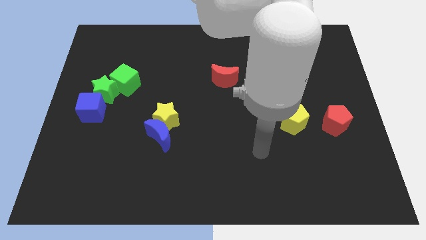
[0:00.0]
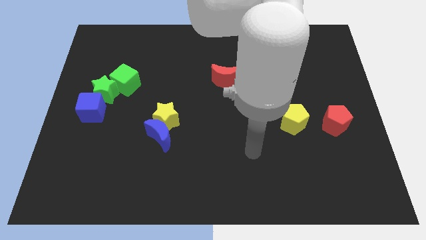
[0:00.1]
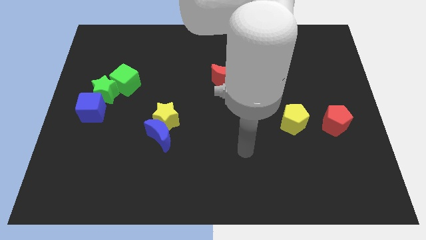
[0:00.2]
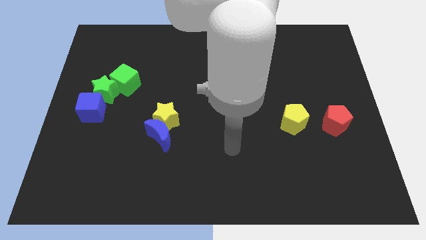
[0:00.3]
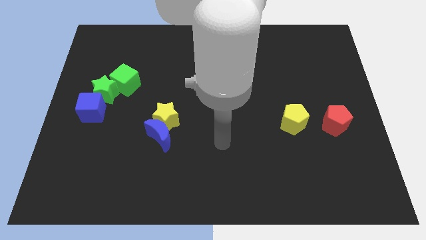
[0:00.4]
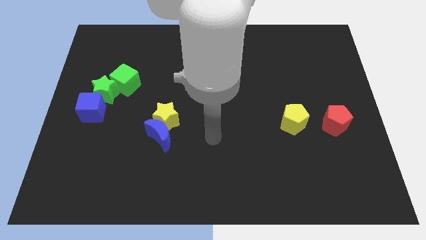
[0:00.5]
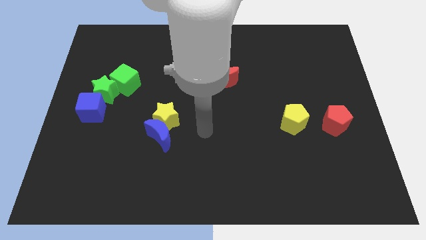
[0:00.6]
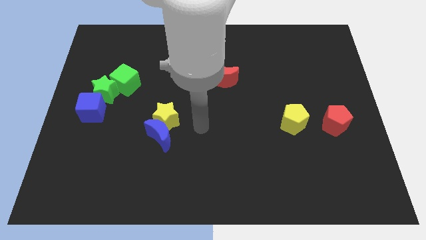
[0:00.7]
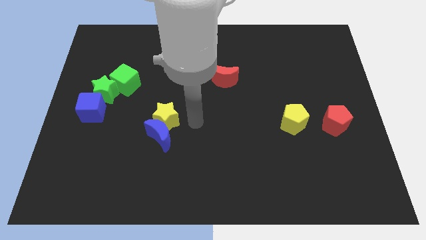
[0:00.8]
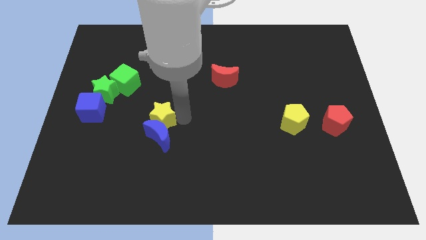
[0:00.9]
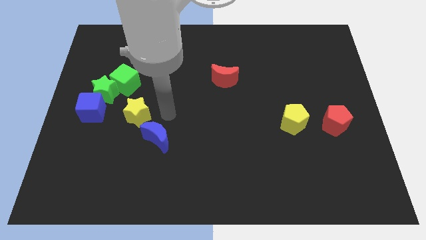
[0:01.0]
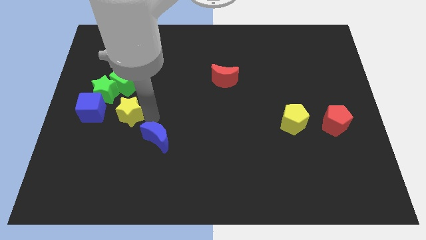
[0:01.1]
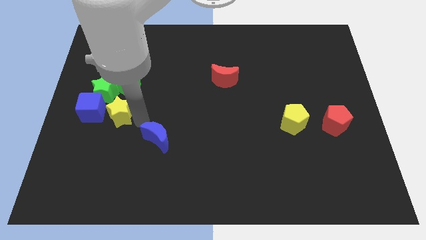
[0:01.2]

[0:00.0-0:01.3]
pull the blue moon apart from the yellow star

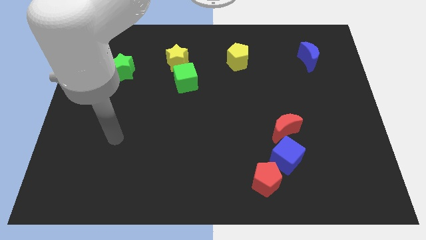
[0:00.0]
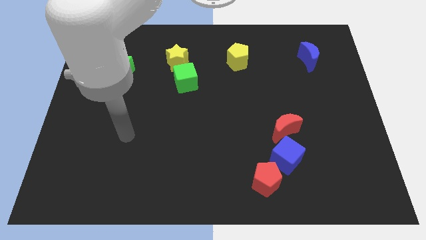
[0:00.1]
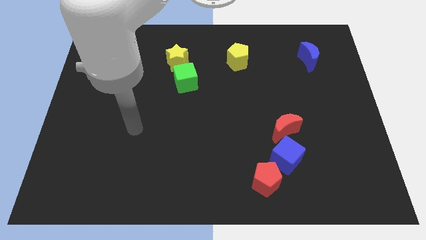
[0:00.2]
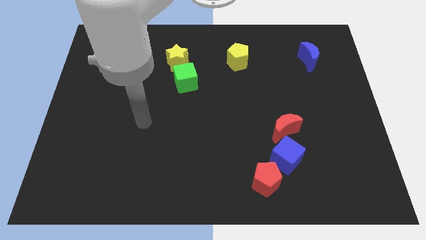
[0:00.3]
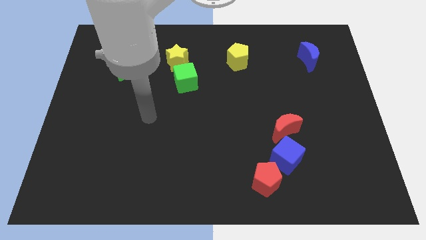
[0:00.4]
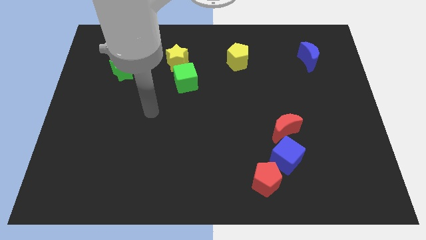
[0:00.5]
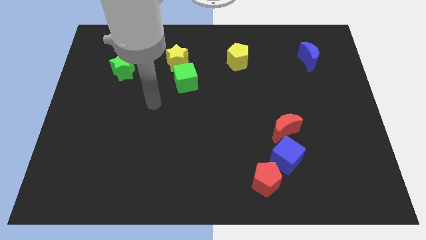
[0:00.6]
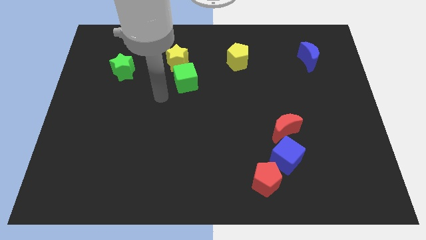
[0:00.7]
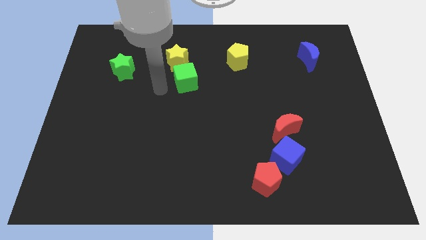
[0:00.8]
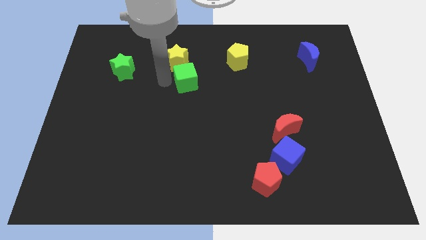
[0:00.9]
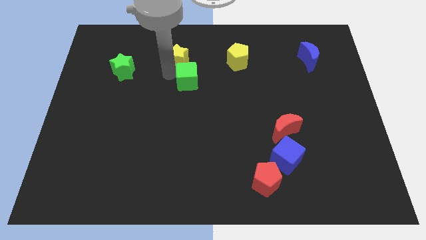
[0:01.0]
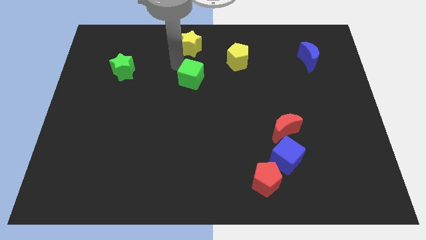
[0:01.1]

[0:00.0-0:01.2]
move the green cube away from the yellow star

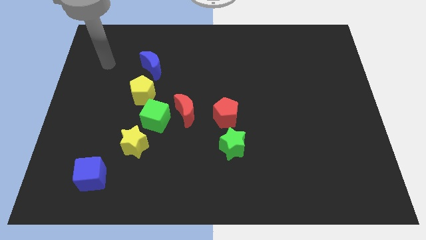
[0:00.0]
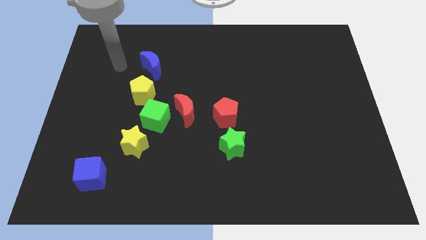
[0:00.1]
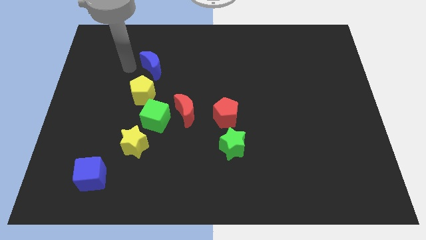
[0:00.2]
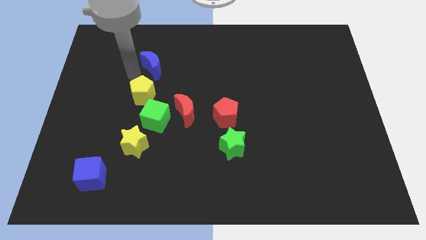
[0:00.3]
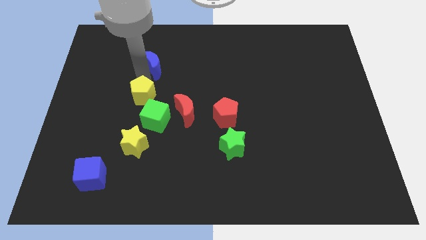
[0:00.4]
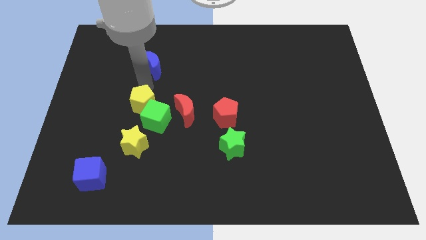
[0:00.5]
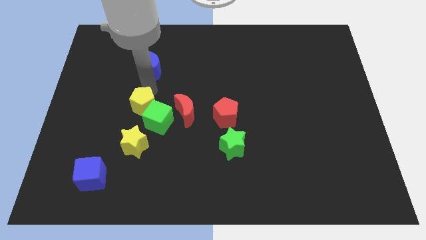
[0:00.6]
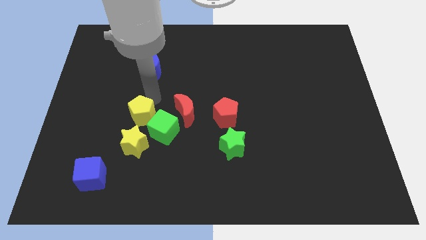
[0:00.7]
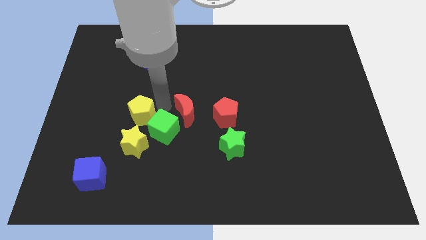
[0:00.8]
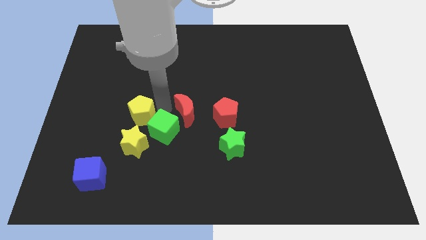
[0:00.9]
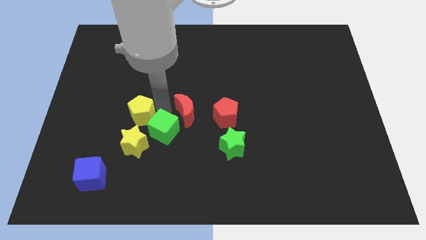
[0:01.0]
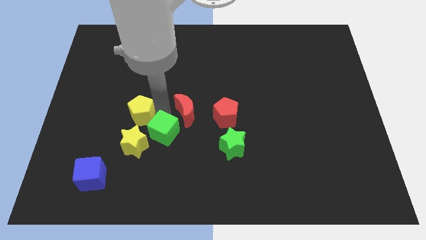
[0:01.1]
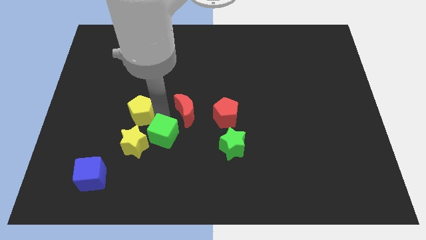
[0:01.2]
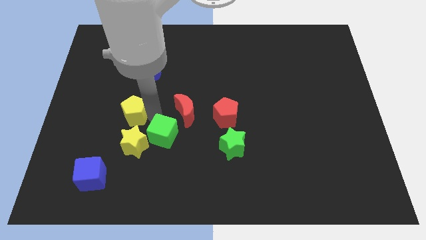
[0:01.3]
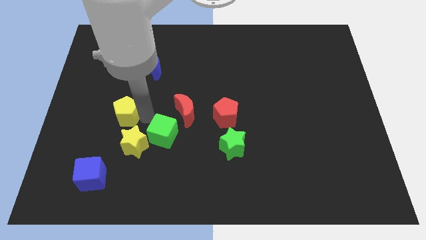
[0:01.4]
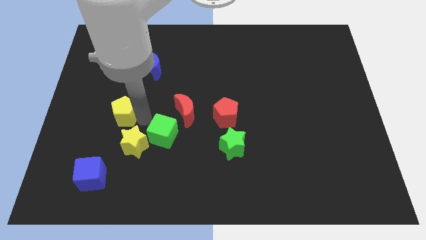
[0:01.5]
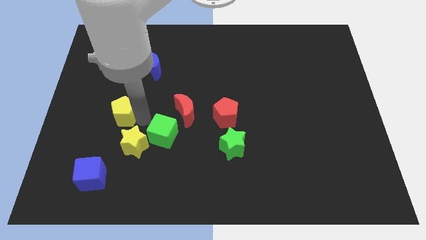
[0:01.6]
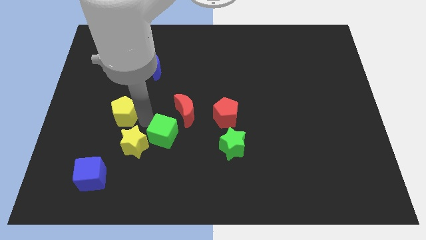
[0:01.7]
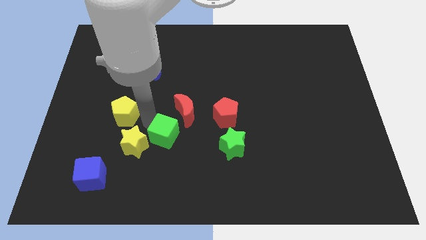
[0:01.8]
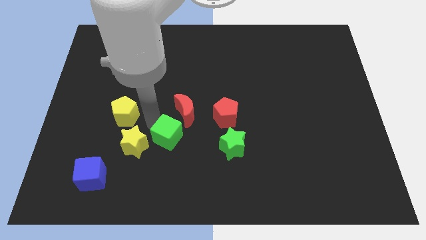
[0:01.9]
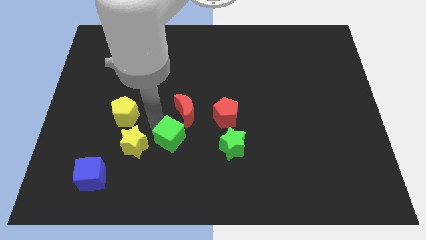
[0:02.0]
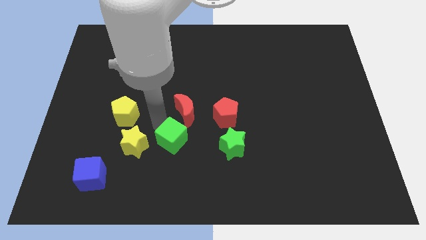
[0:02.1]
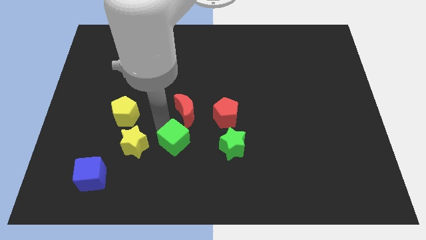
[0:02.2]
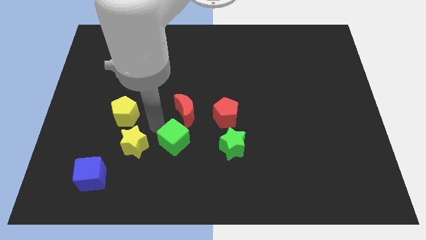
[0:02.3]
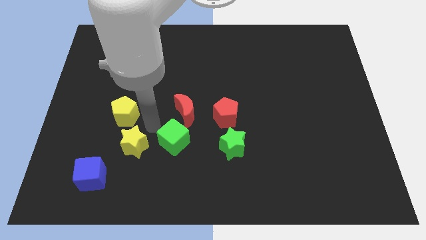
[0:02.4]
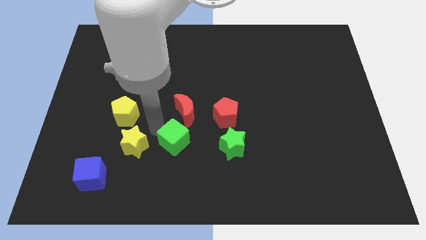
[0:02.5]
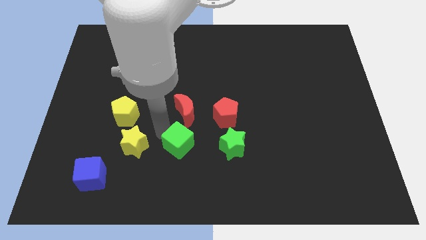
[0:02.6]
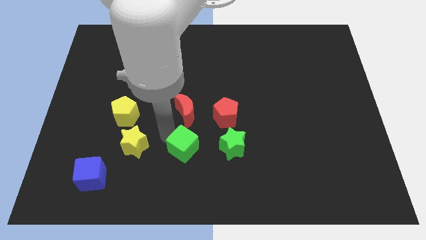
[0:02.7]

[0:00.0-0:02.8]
pull the green cube apart from the red moon, yellow star, and yellow pentagon

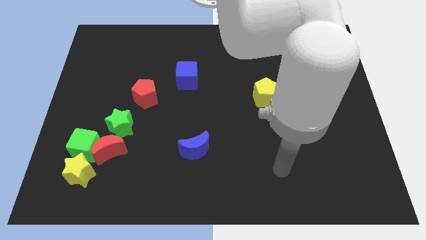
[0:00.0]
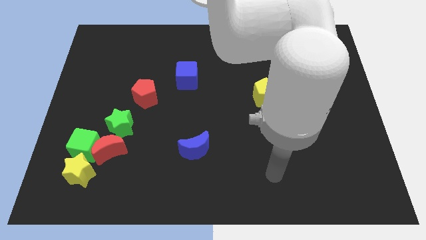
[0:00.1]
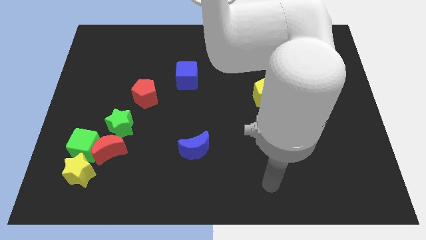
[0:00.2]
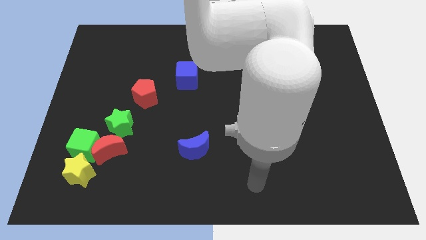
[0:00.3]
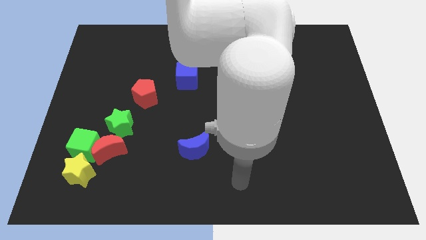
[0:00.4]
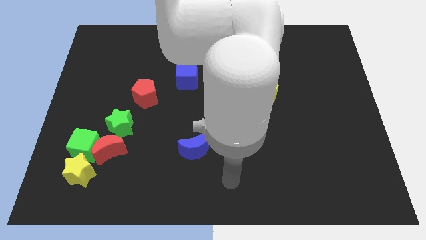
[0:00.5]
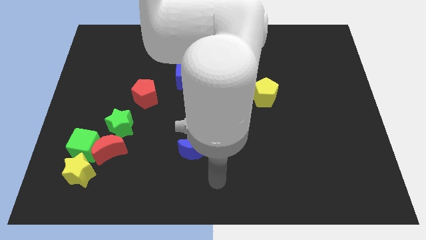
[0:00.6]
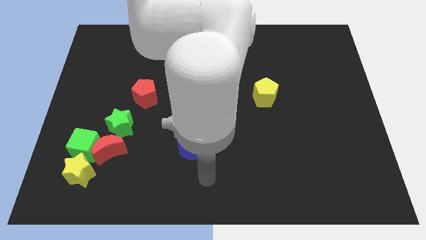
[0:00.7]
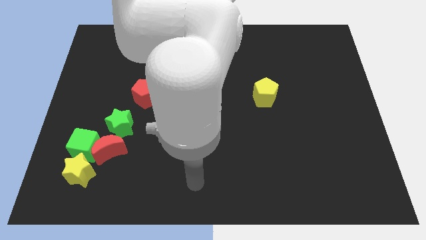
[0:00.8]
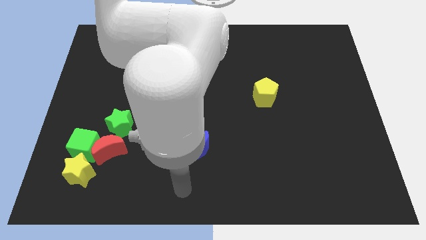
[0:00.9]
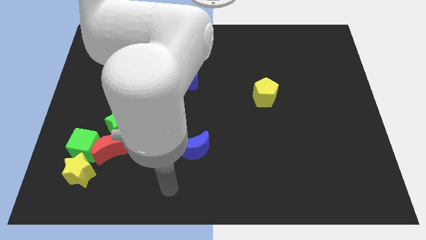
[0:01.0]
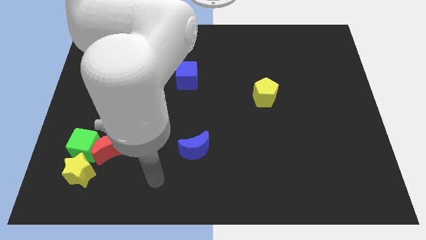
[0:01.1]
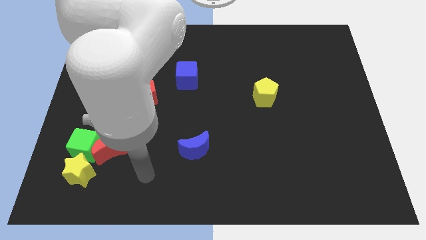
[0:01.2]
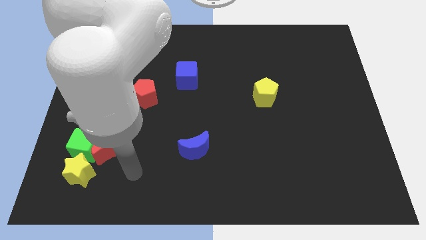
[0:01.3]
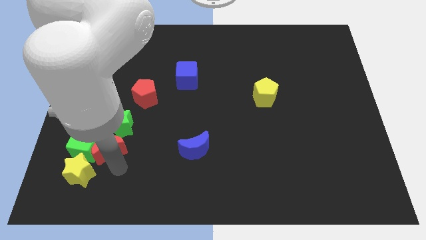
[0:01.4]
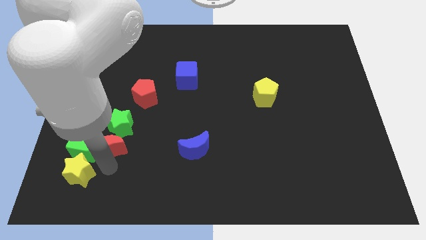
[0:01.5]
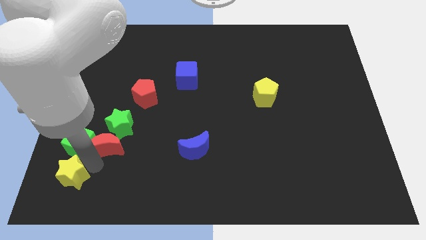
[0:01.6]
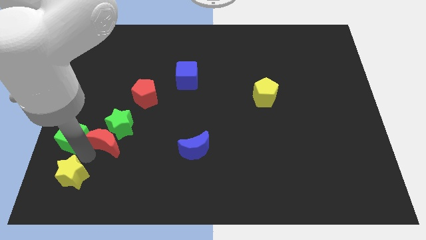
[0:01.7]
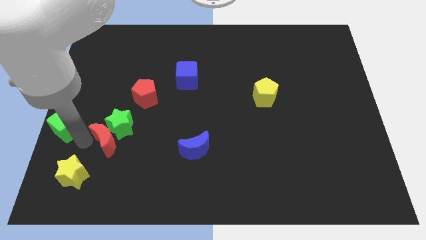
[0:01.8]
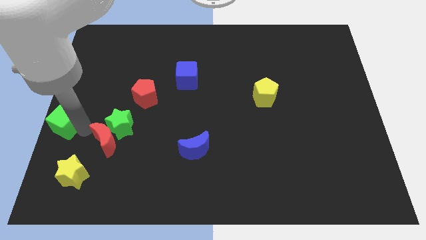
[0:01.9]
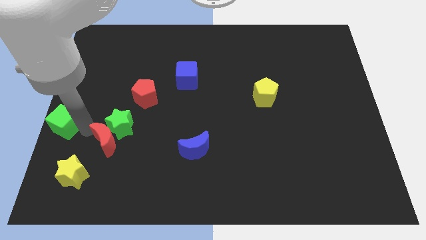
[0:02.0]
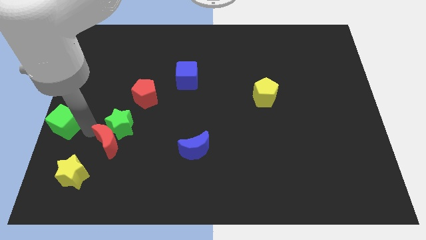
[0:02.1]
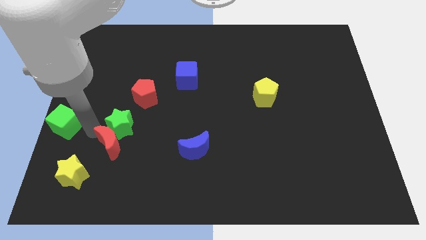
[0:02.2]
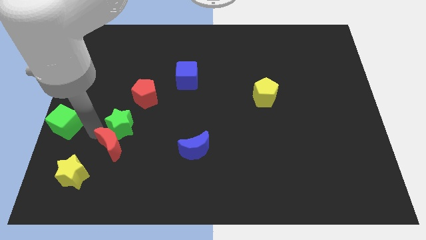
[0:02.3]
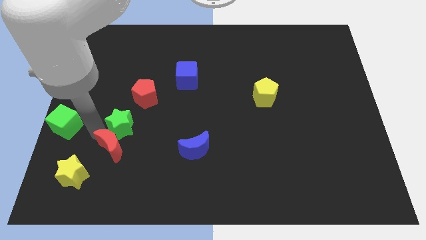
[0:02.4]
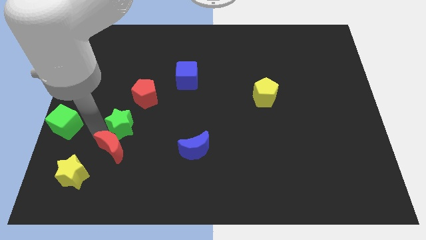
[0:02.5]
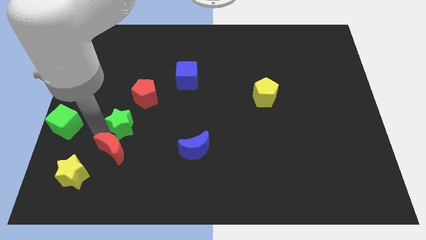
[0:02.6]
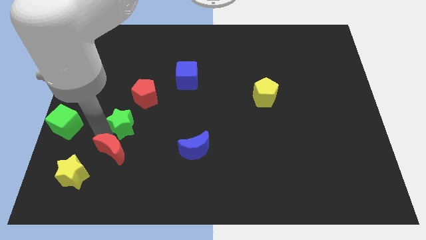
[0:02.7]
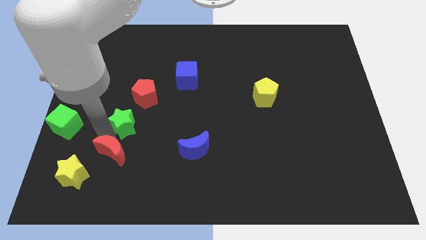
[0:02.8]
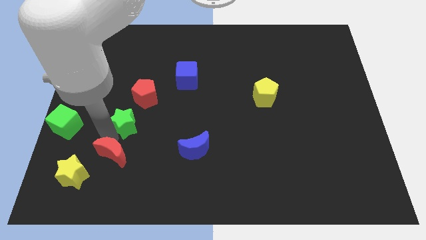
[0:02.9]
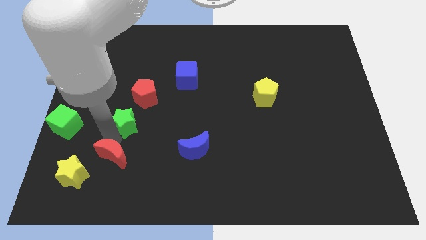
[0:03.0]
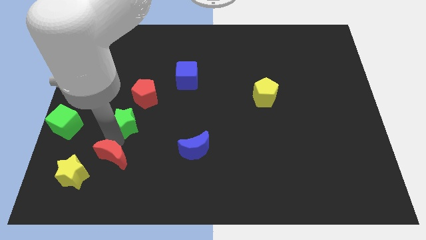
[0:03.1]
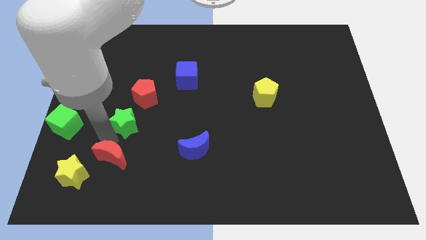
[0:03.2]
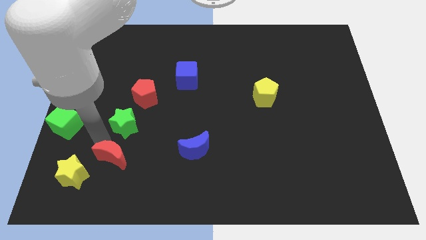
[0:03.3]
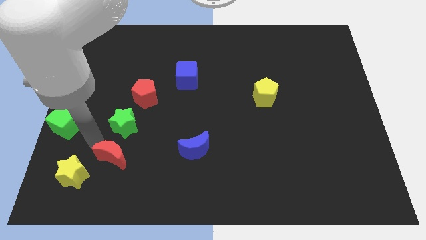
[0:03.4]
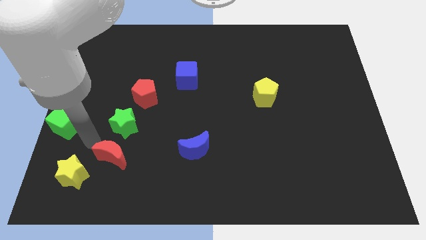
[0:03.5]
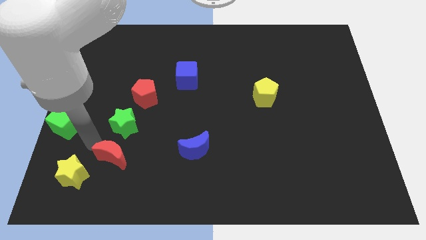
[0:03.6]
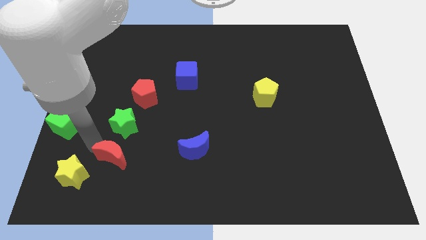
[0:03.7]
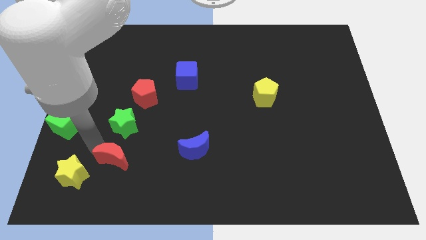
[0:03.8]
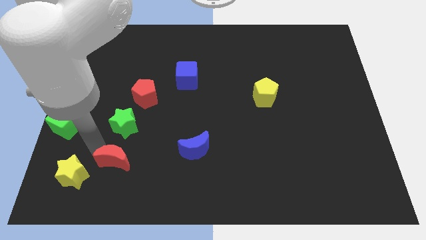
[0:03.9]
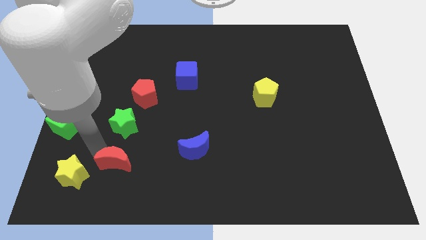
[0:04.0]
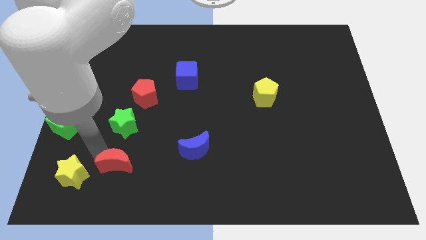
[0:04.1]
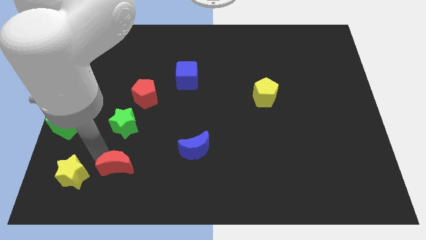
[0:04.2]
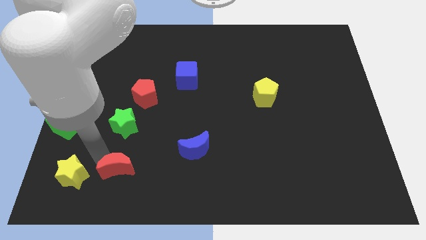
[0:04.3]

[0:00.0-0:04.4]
move the red moon away from the clump
